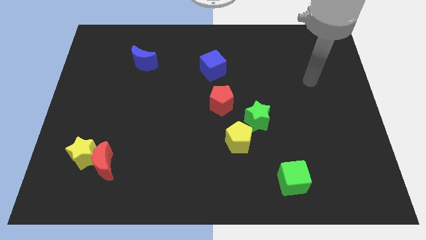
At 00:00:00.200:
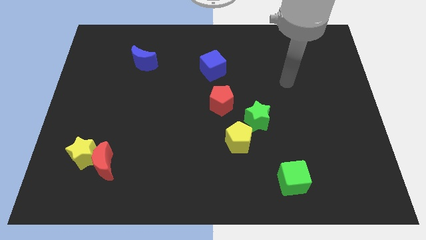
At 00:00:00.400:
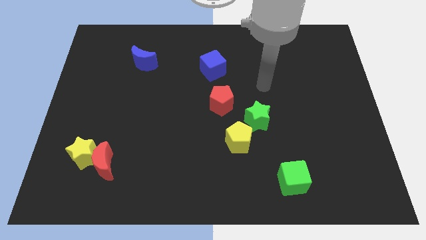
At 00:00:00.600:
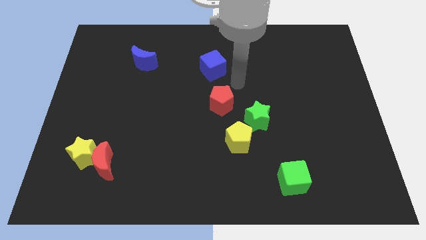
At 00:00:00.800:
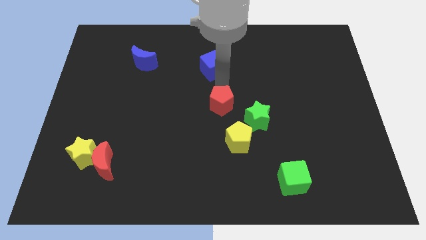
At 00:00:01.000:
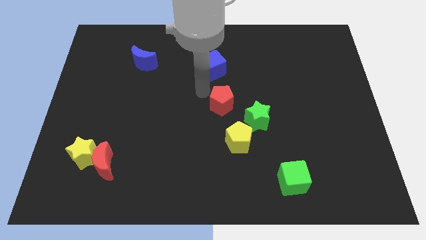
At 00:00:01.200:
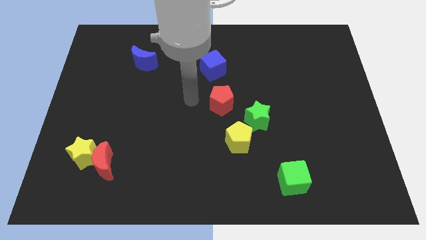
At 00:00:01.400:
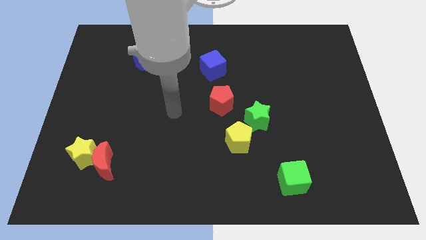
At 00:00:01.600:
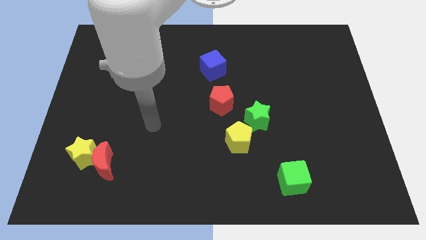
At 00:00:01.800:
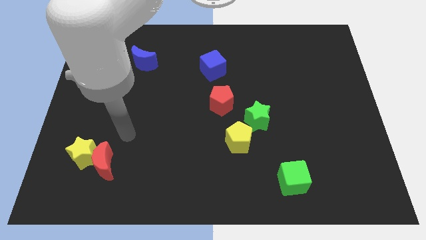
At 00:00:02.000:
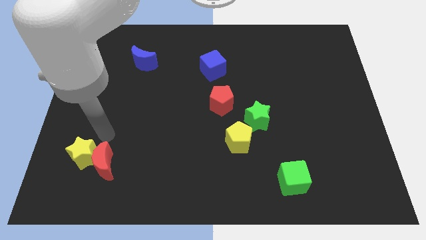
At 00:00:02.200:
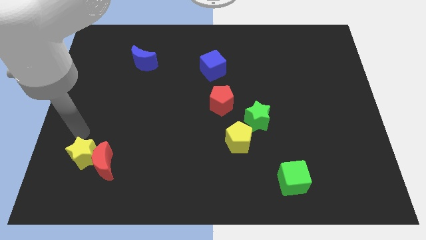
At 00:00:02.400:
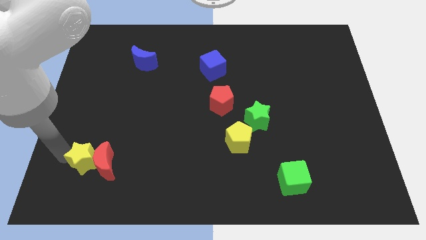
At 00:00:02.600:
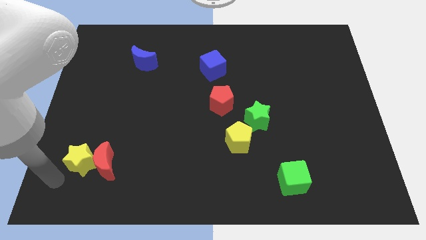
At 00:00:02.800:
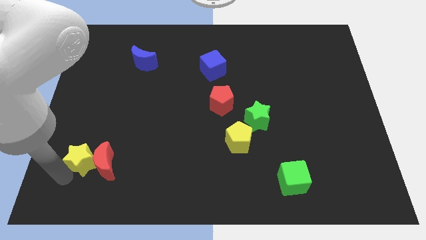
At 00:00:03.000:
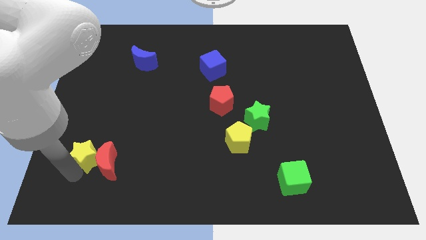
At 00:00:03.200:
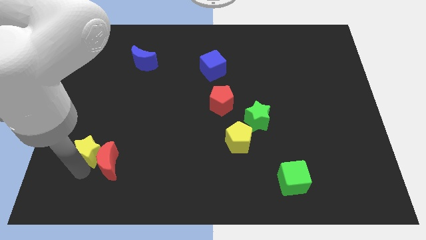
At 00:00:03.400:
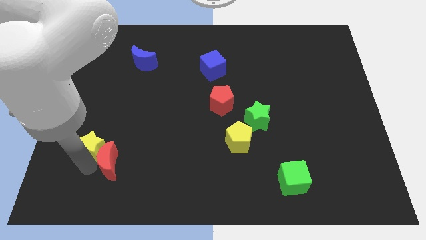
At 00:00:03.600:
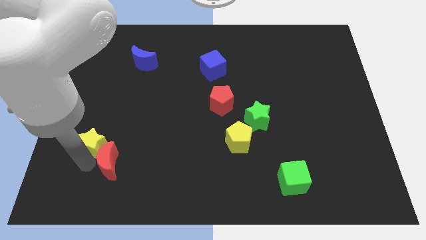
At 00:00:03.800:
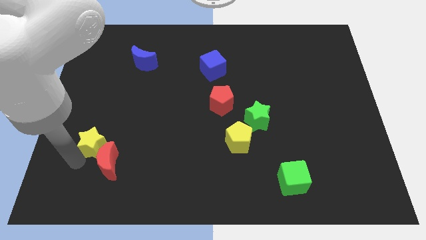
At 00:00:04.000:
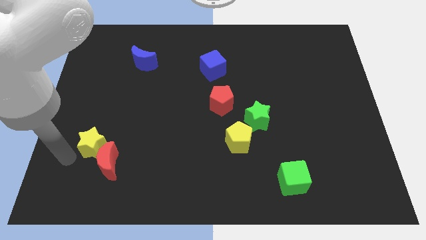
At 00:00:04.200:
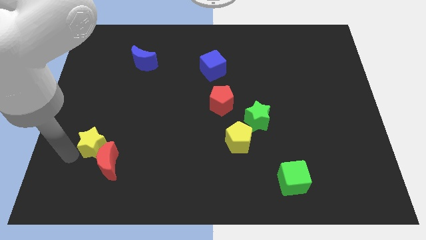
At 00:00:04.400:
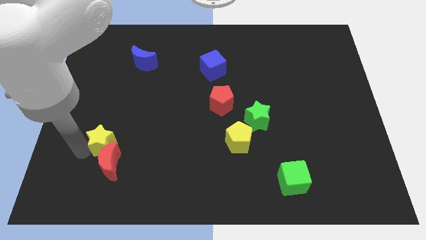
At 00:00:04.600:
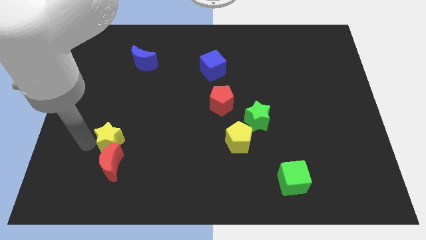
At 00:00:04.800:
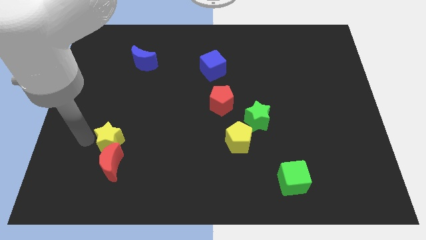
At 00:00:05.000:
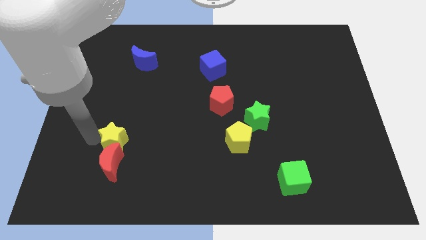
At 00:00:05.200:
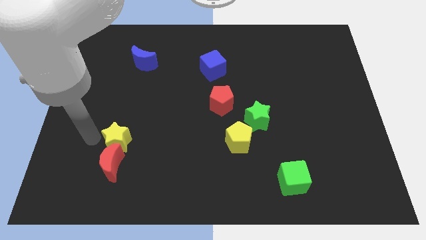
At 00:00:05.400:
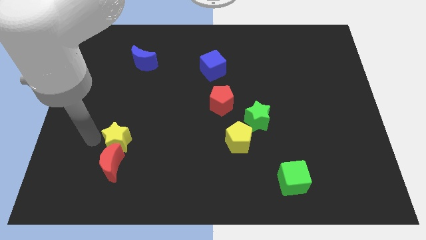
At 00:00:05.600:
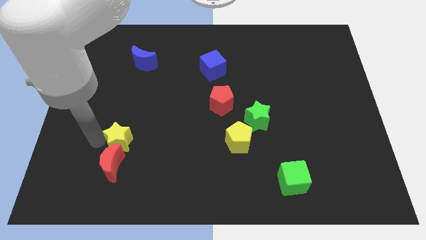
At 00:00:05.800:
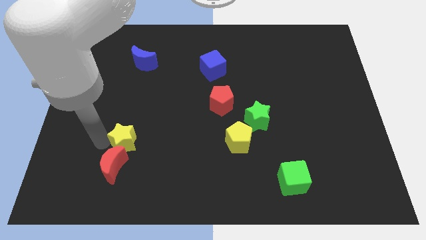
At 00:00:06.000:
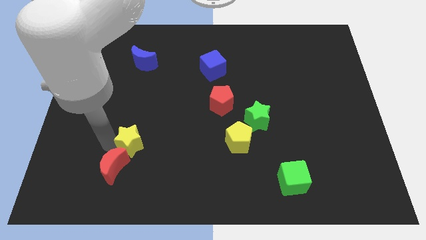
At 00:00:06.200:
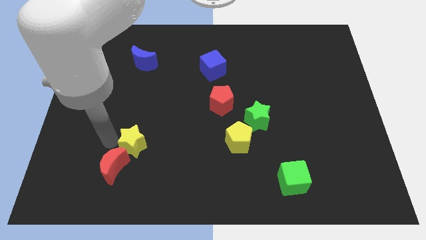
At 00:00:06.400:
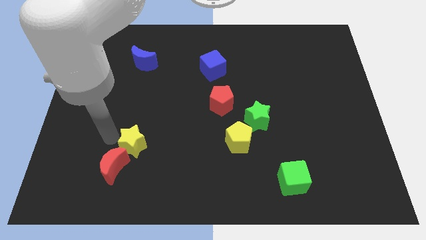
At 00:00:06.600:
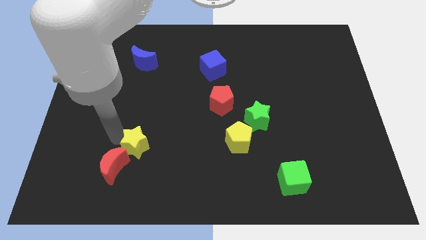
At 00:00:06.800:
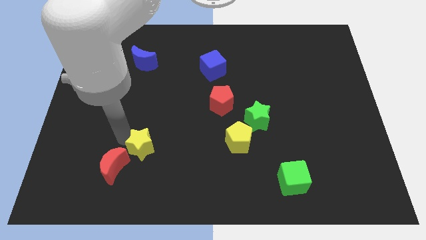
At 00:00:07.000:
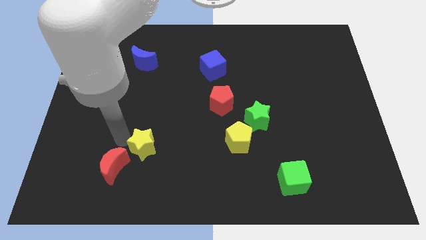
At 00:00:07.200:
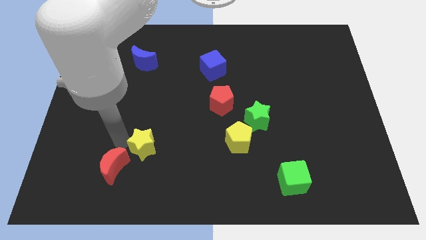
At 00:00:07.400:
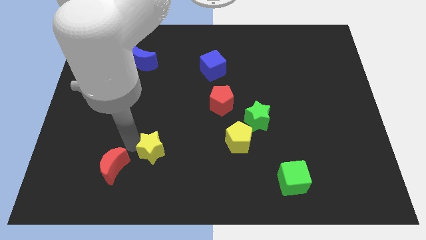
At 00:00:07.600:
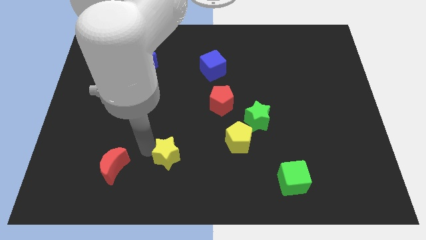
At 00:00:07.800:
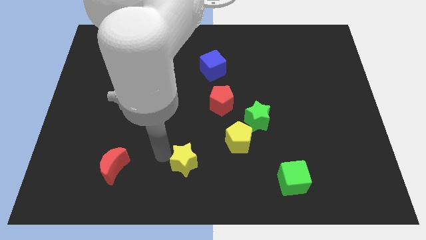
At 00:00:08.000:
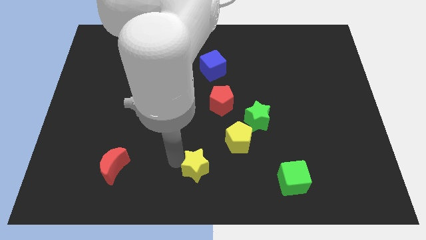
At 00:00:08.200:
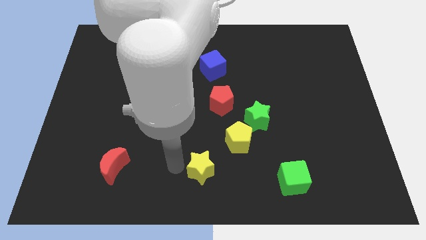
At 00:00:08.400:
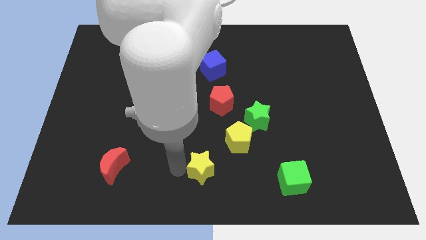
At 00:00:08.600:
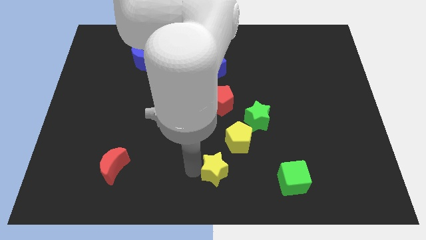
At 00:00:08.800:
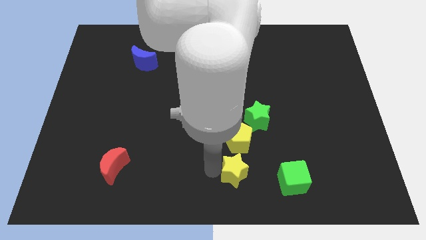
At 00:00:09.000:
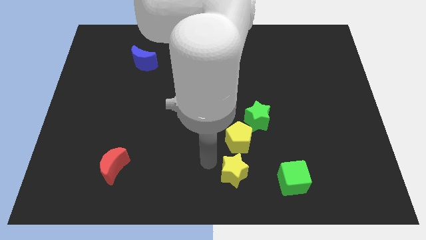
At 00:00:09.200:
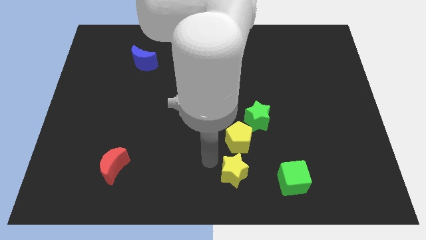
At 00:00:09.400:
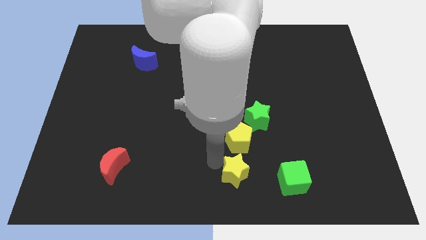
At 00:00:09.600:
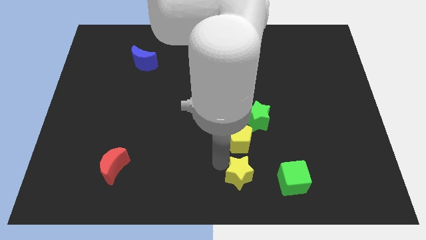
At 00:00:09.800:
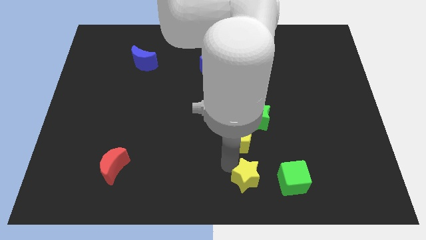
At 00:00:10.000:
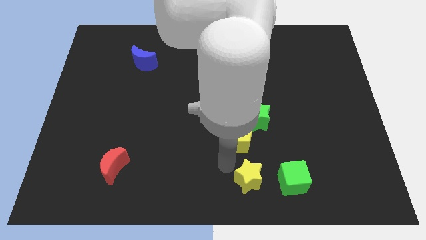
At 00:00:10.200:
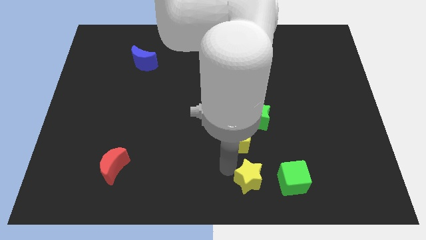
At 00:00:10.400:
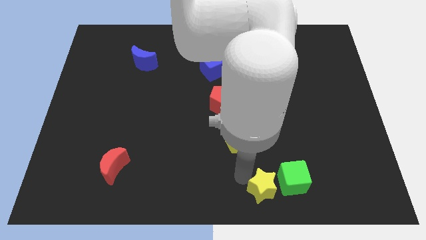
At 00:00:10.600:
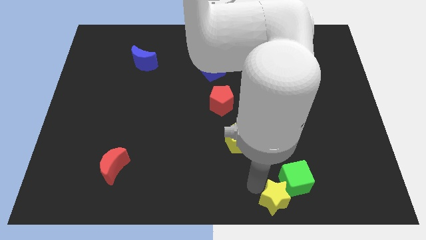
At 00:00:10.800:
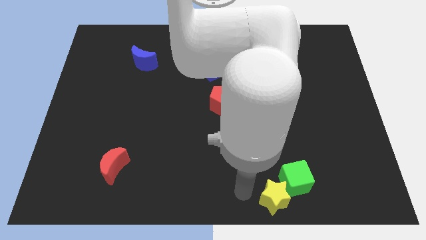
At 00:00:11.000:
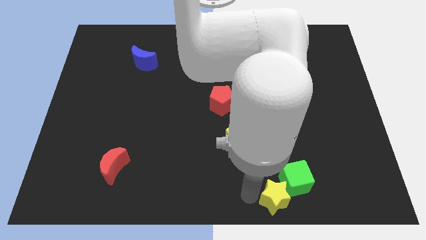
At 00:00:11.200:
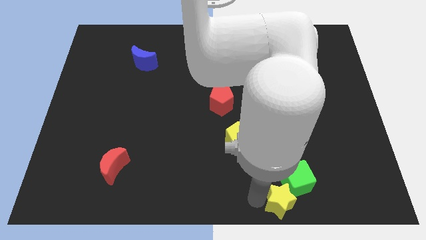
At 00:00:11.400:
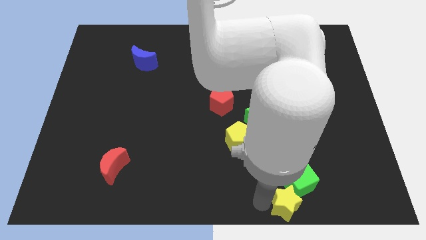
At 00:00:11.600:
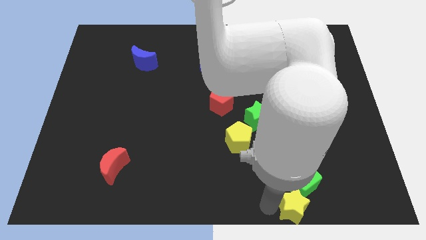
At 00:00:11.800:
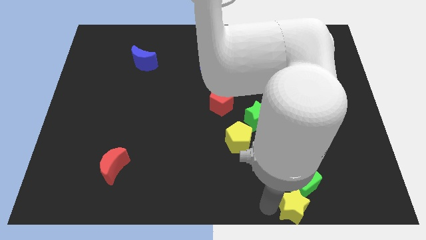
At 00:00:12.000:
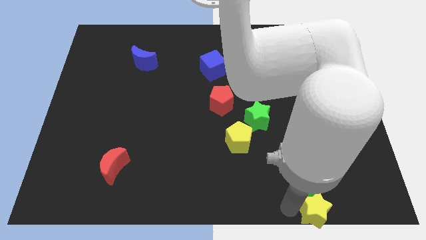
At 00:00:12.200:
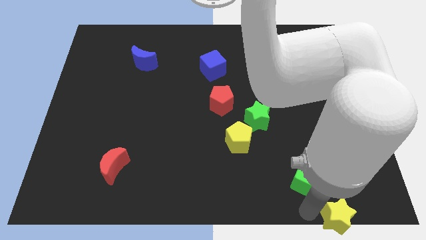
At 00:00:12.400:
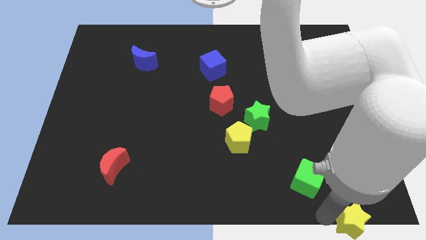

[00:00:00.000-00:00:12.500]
move the yellow star to the bottom right

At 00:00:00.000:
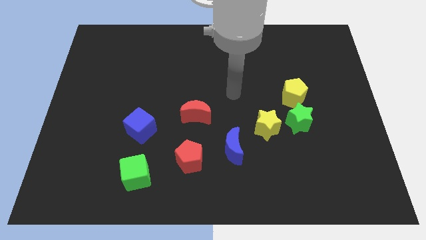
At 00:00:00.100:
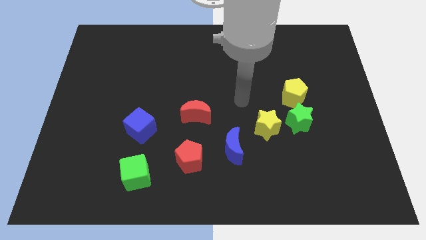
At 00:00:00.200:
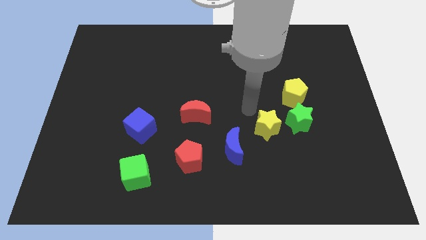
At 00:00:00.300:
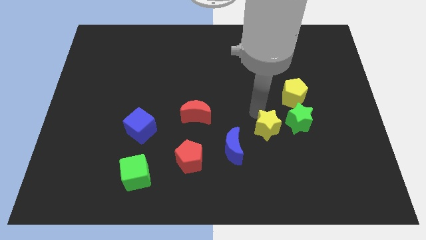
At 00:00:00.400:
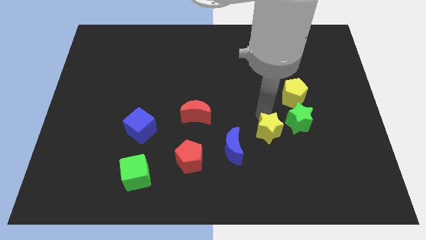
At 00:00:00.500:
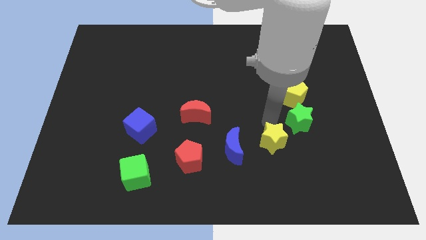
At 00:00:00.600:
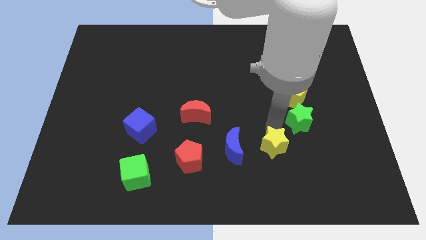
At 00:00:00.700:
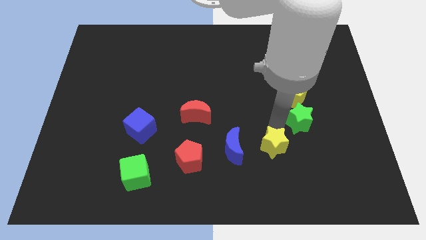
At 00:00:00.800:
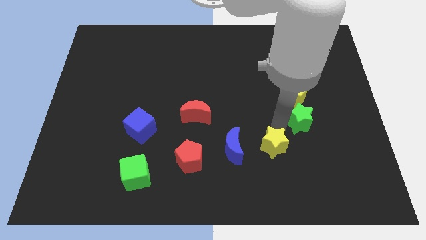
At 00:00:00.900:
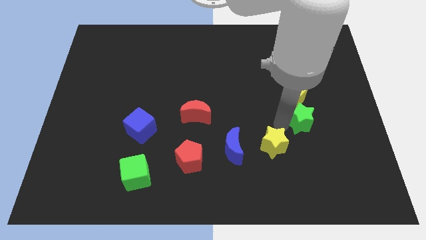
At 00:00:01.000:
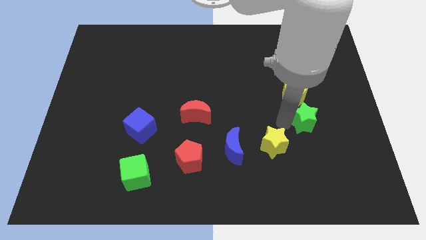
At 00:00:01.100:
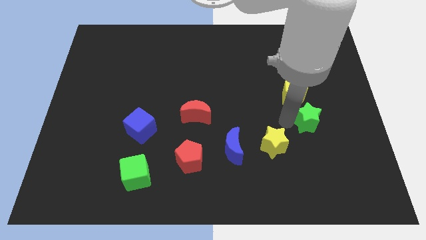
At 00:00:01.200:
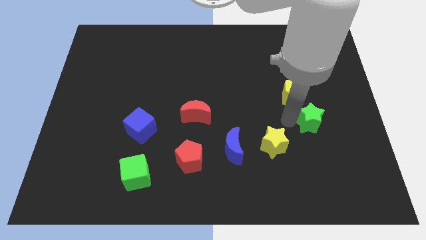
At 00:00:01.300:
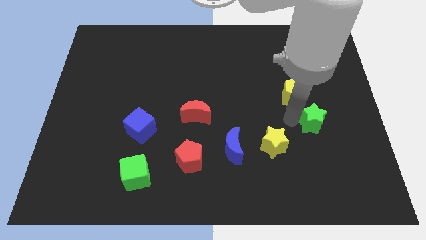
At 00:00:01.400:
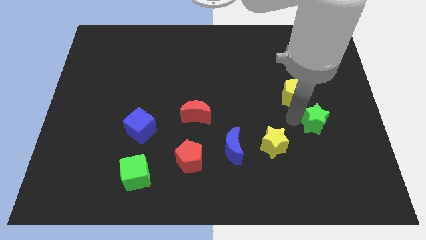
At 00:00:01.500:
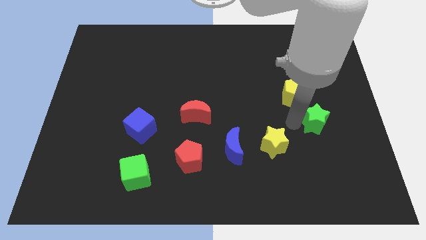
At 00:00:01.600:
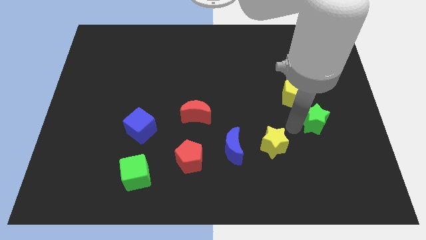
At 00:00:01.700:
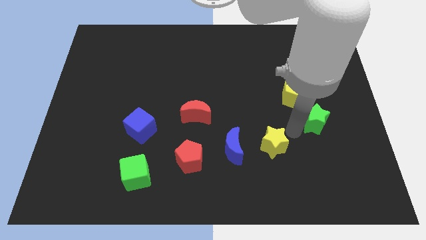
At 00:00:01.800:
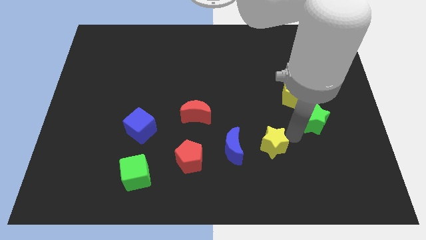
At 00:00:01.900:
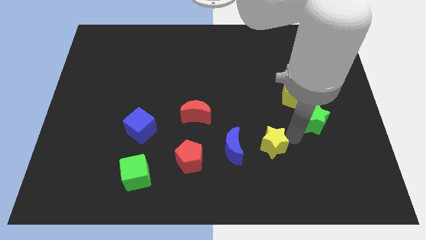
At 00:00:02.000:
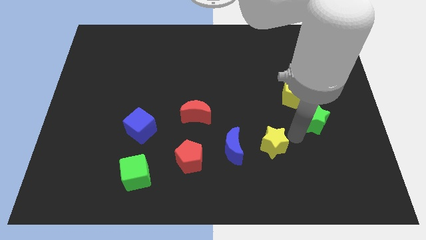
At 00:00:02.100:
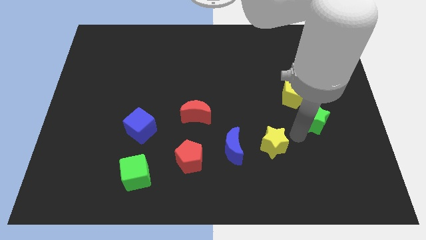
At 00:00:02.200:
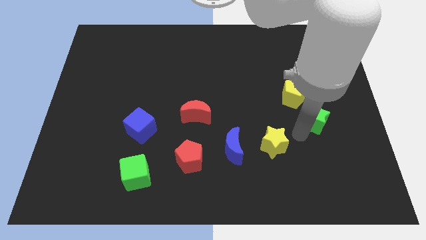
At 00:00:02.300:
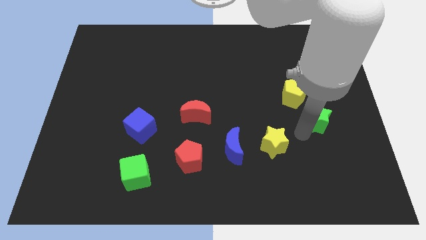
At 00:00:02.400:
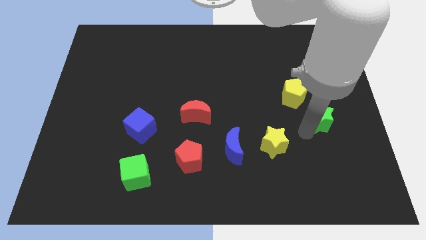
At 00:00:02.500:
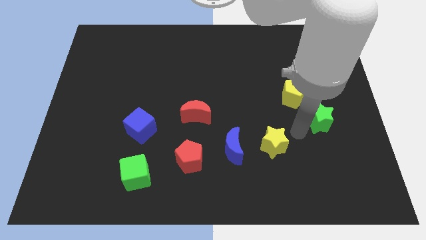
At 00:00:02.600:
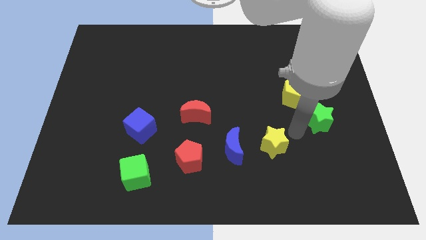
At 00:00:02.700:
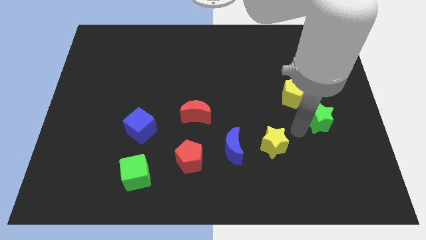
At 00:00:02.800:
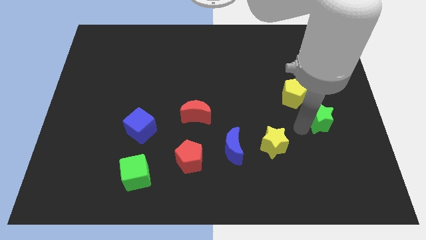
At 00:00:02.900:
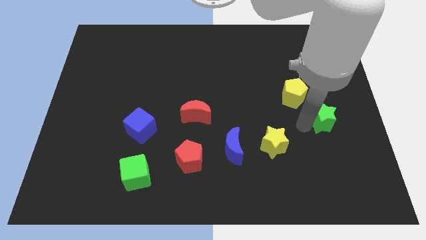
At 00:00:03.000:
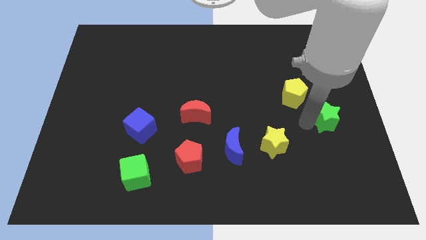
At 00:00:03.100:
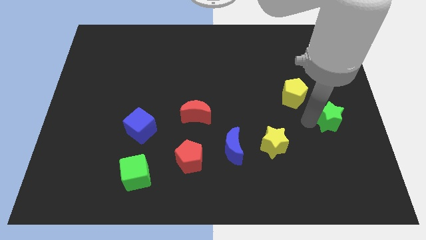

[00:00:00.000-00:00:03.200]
slide the green star to the right side of the board
